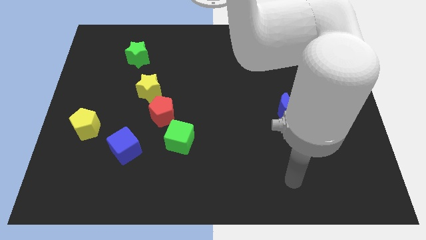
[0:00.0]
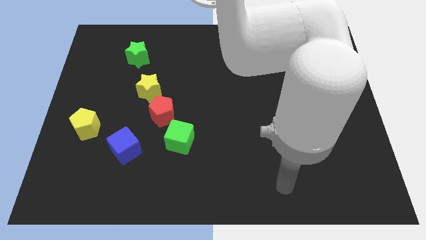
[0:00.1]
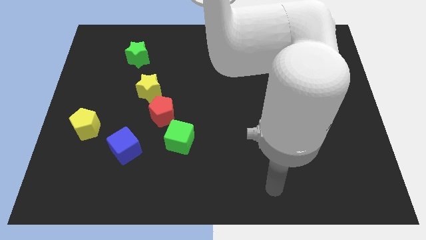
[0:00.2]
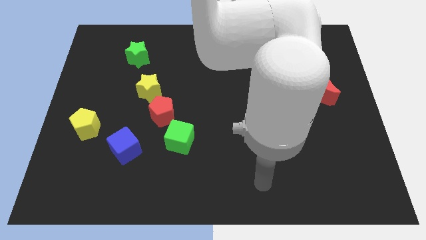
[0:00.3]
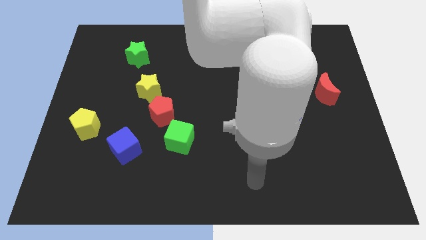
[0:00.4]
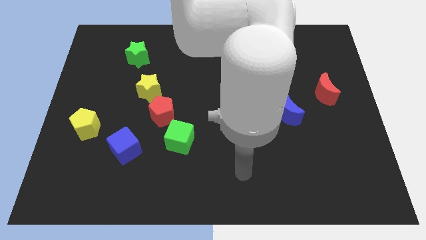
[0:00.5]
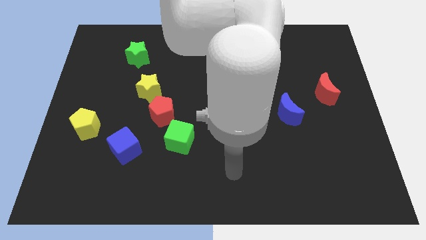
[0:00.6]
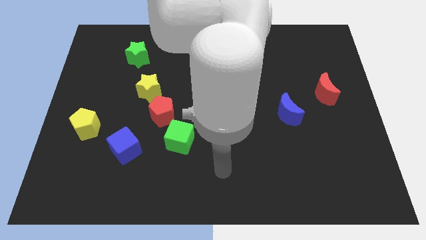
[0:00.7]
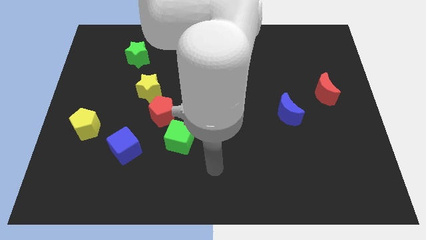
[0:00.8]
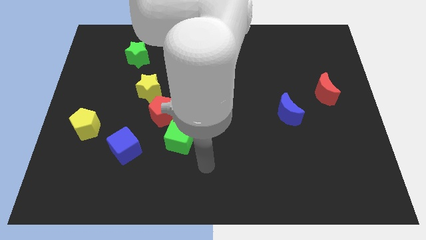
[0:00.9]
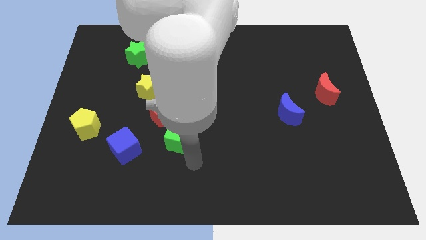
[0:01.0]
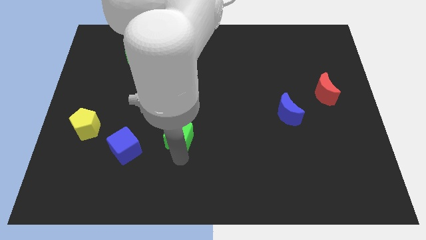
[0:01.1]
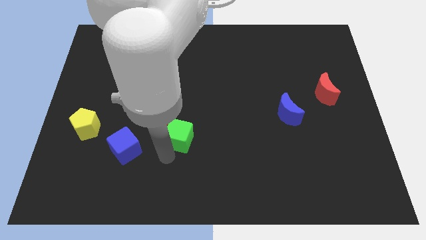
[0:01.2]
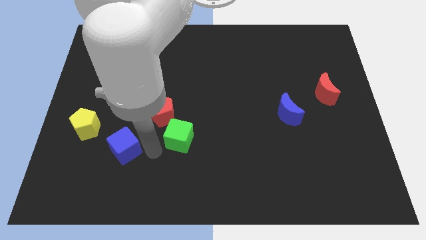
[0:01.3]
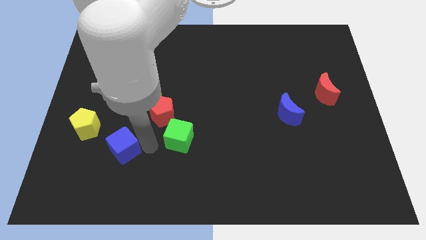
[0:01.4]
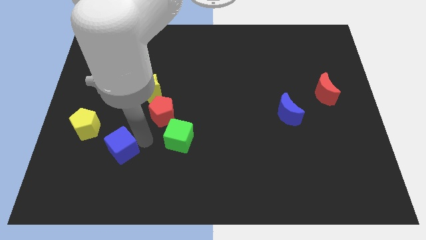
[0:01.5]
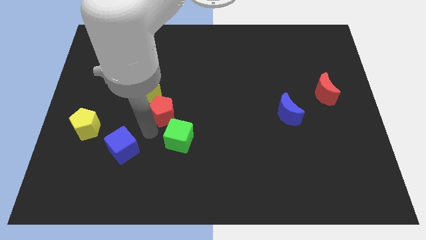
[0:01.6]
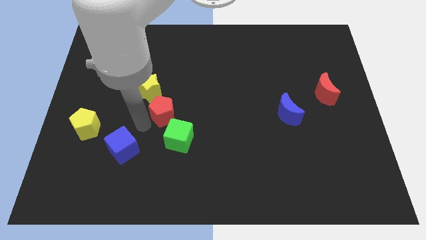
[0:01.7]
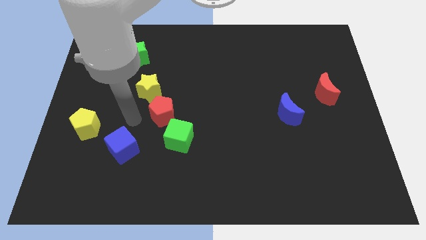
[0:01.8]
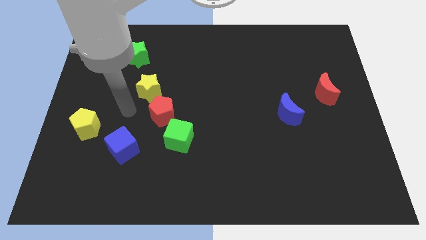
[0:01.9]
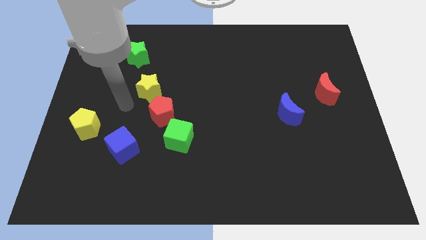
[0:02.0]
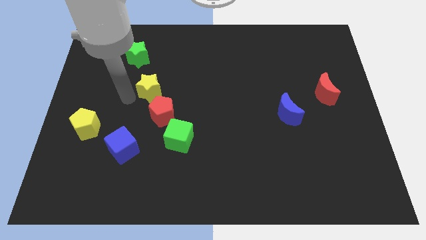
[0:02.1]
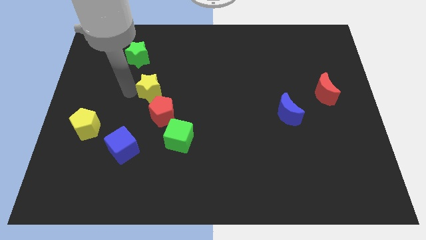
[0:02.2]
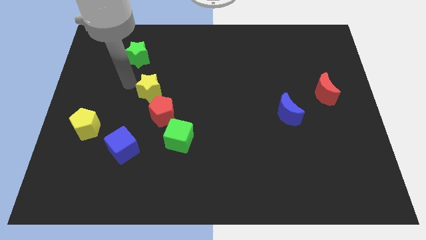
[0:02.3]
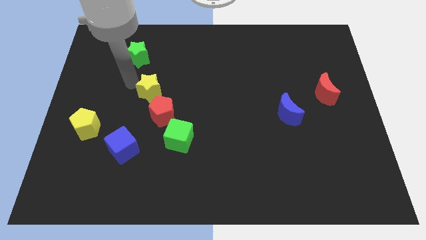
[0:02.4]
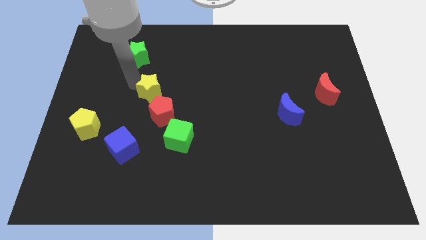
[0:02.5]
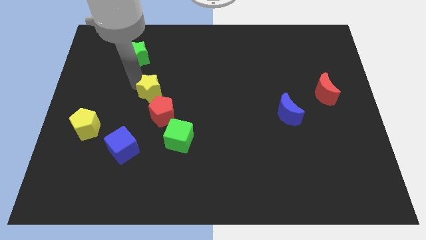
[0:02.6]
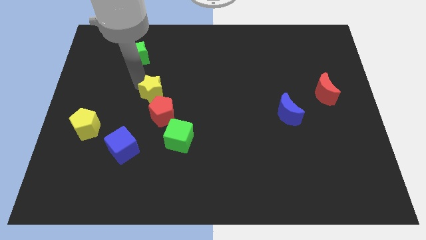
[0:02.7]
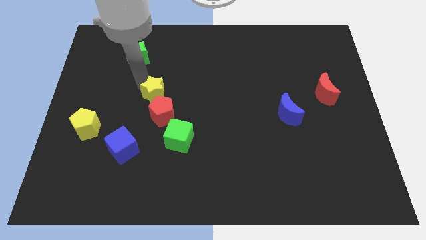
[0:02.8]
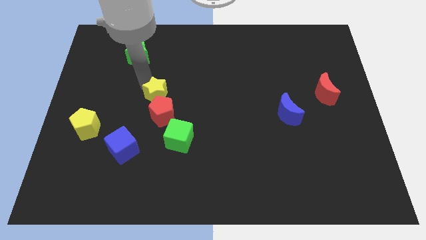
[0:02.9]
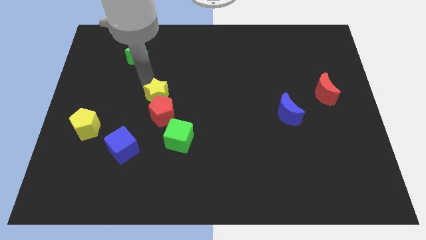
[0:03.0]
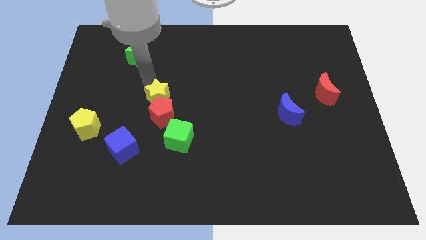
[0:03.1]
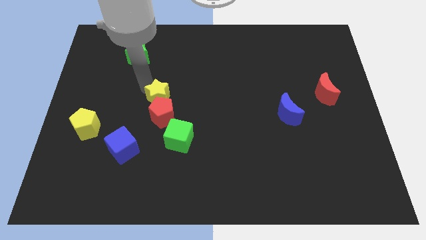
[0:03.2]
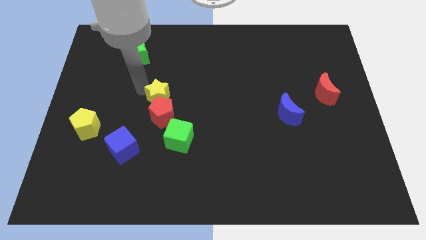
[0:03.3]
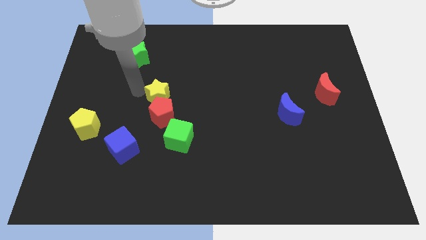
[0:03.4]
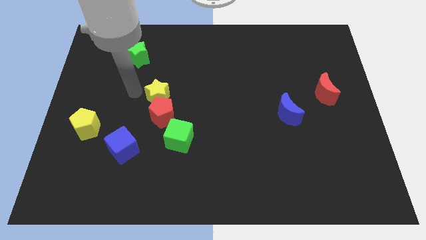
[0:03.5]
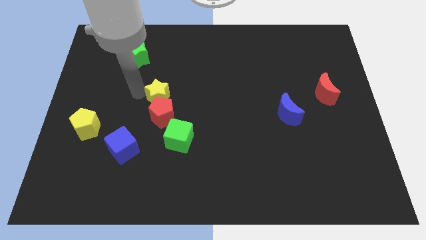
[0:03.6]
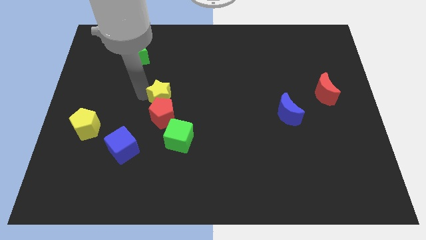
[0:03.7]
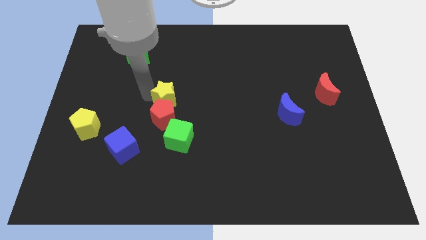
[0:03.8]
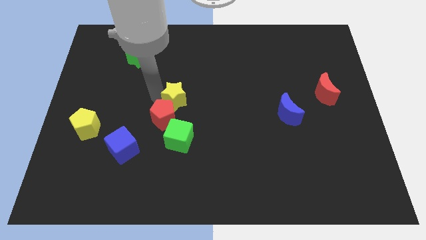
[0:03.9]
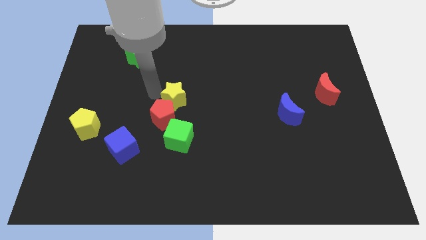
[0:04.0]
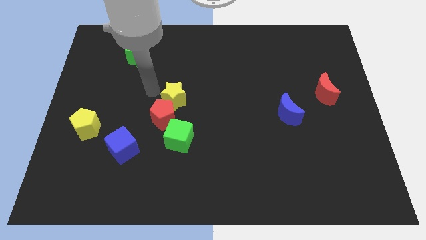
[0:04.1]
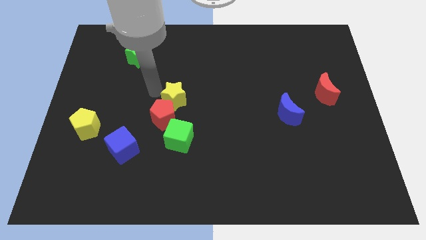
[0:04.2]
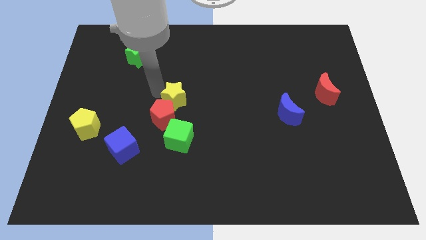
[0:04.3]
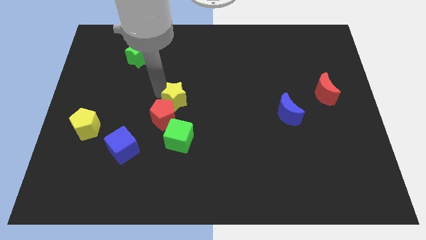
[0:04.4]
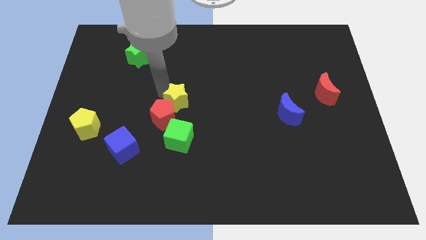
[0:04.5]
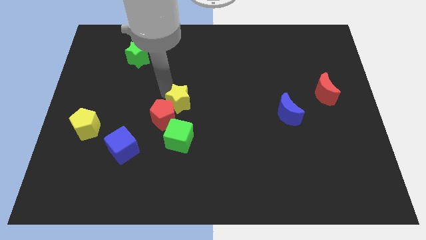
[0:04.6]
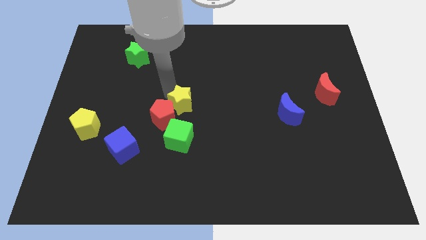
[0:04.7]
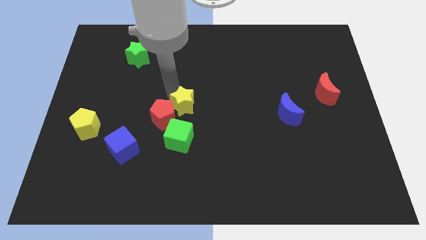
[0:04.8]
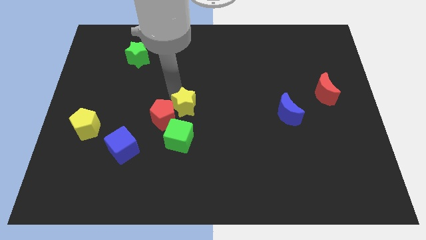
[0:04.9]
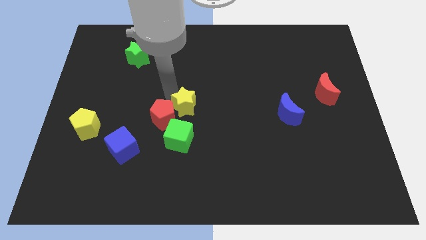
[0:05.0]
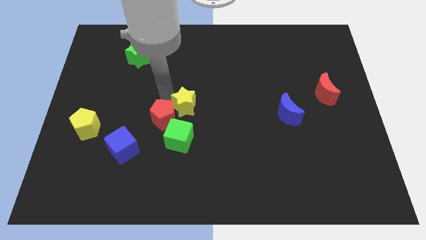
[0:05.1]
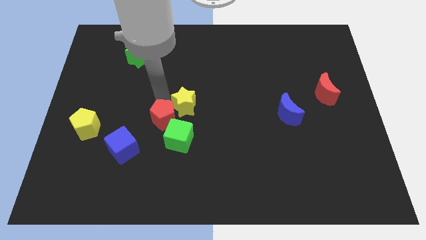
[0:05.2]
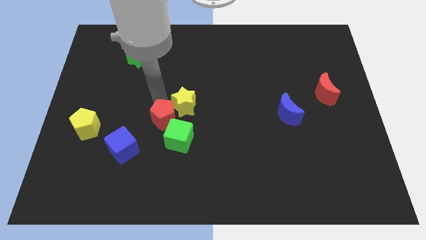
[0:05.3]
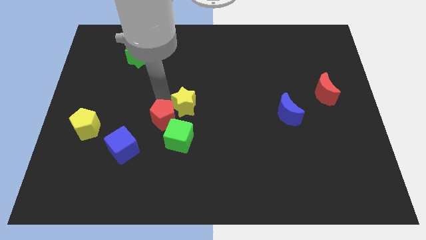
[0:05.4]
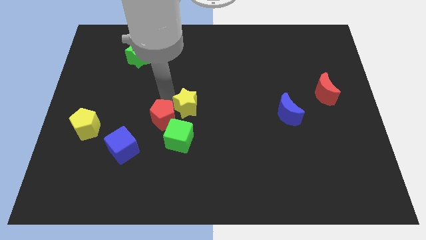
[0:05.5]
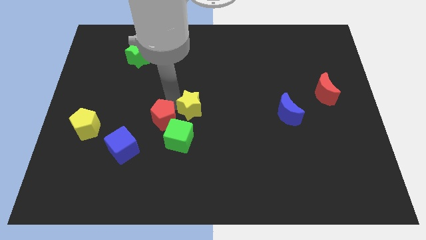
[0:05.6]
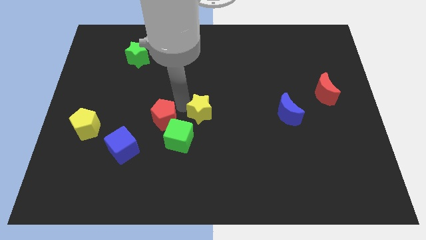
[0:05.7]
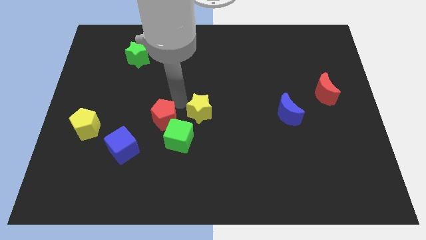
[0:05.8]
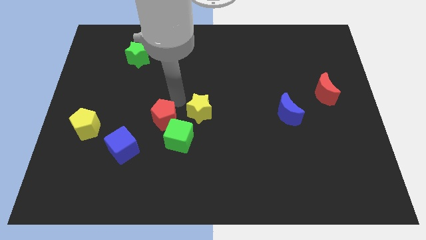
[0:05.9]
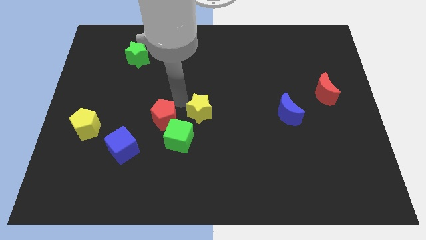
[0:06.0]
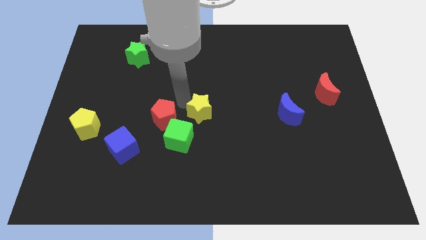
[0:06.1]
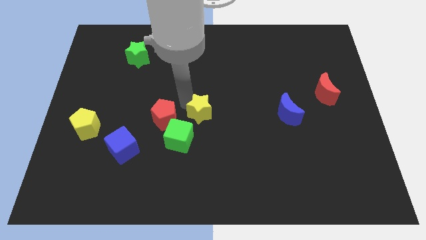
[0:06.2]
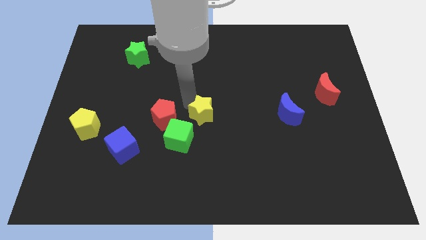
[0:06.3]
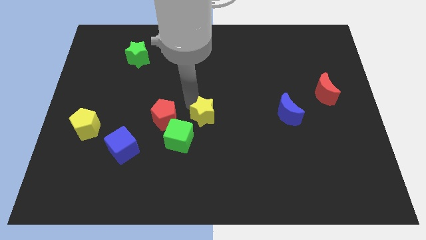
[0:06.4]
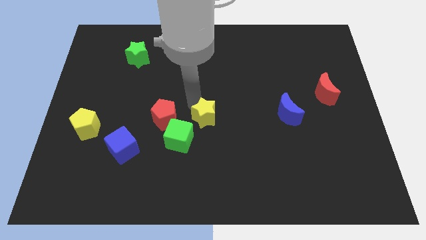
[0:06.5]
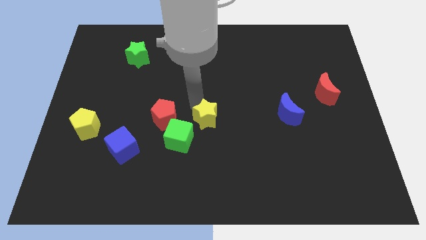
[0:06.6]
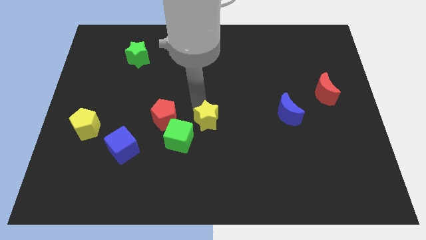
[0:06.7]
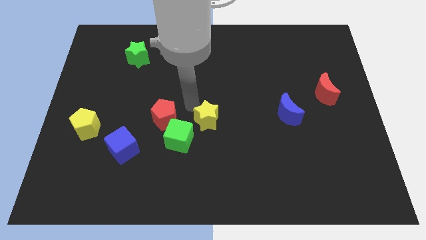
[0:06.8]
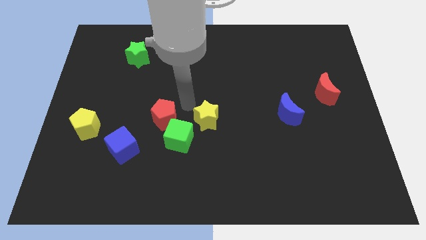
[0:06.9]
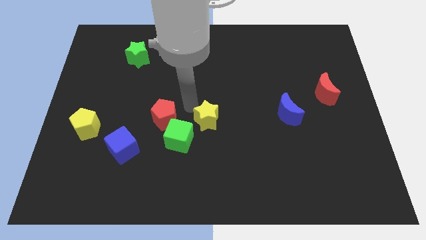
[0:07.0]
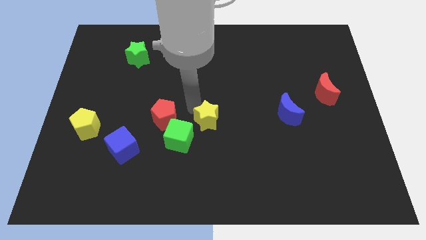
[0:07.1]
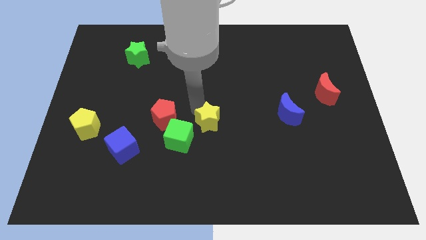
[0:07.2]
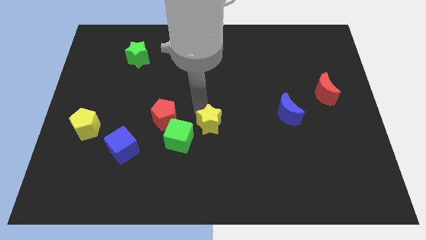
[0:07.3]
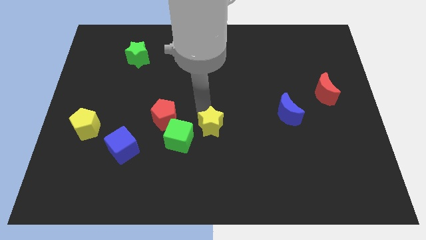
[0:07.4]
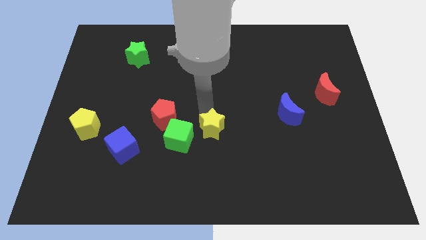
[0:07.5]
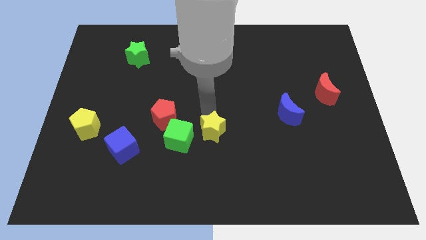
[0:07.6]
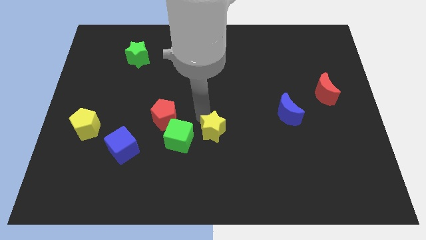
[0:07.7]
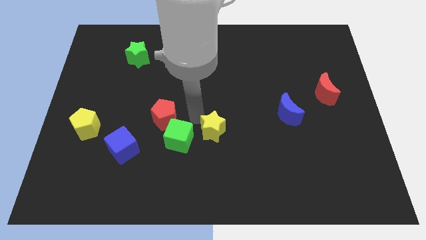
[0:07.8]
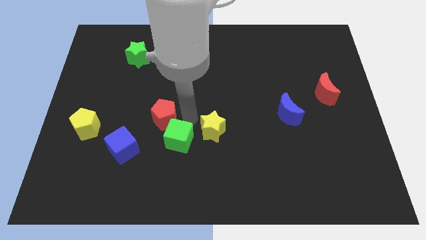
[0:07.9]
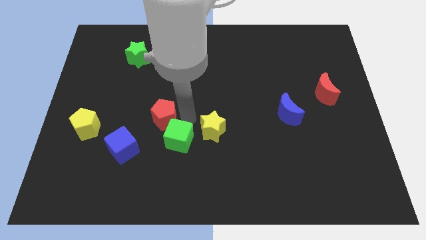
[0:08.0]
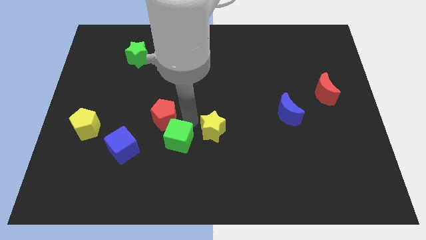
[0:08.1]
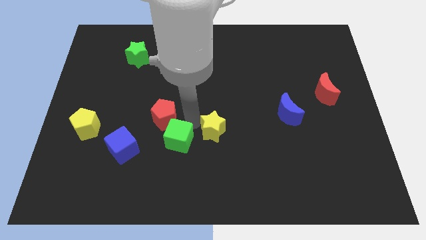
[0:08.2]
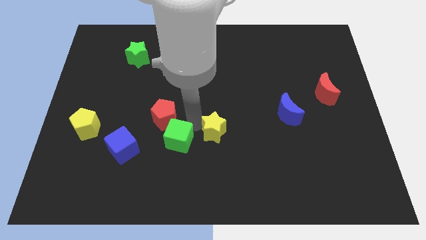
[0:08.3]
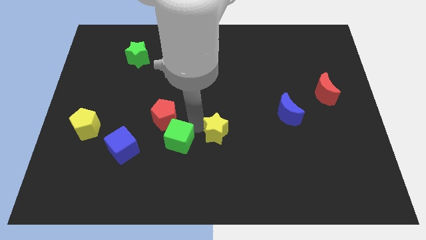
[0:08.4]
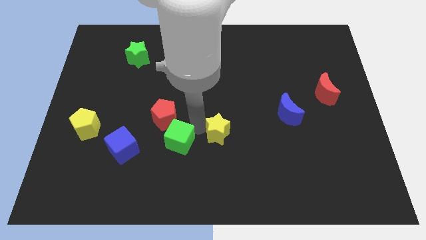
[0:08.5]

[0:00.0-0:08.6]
push the yellow star diagonally down and right
